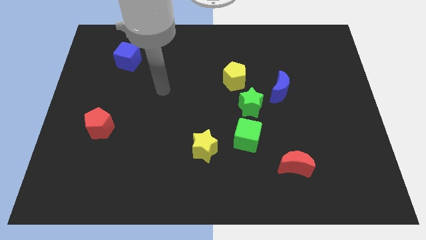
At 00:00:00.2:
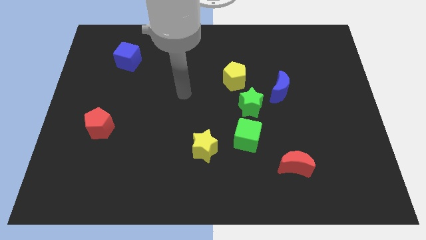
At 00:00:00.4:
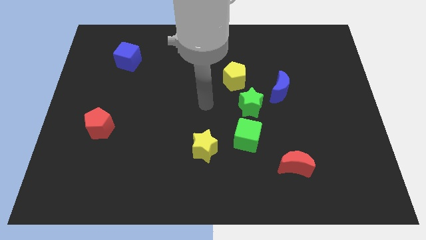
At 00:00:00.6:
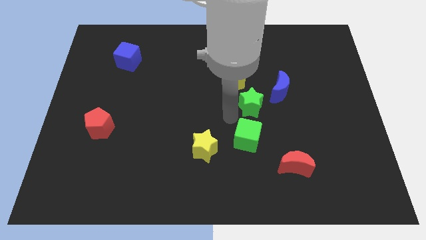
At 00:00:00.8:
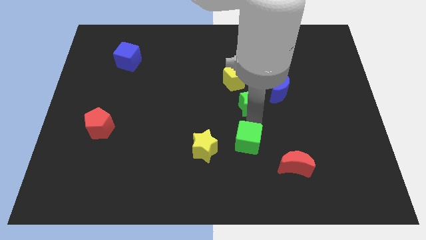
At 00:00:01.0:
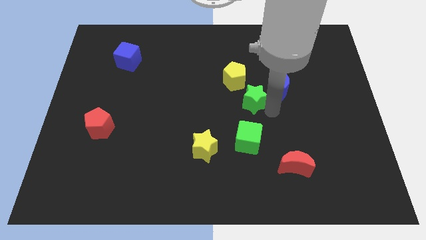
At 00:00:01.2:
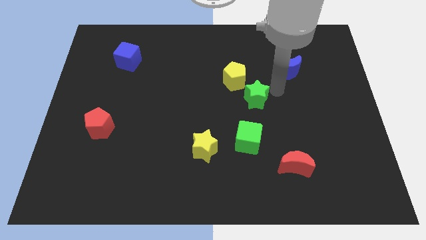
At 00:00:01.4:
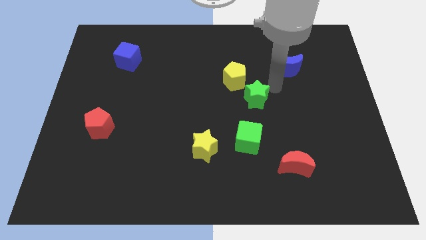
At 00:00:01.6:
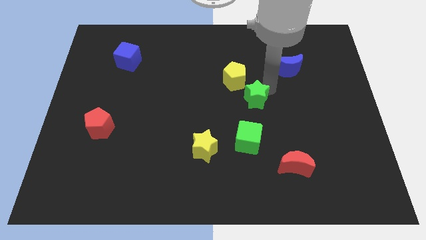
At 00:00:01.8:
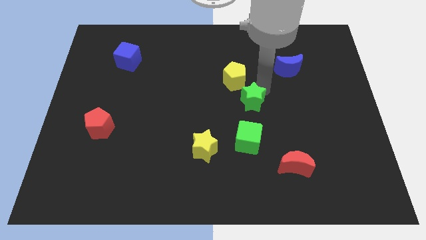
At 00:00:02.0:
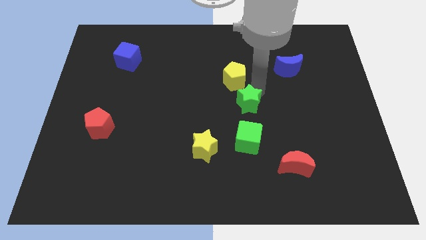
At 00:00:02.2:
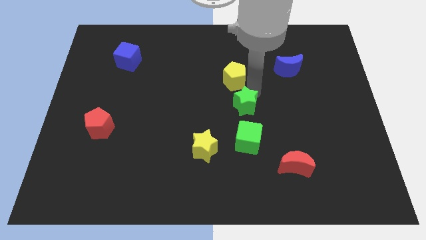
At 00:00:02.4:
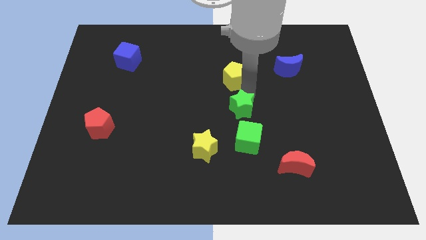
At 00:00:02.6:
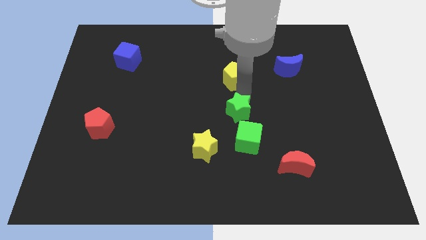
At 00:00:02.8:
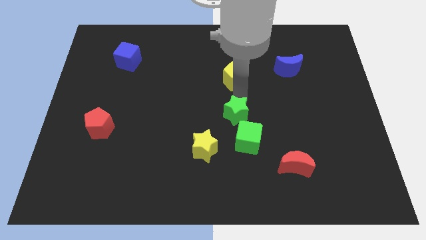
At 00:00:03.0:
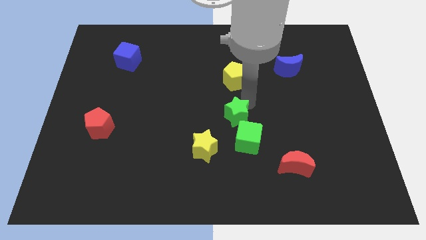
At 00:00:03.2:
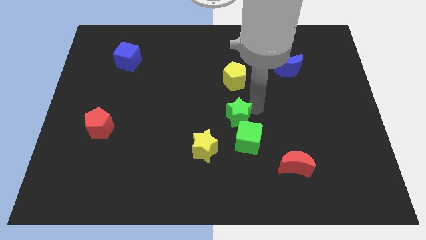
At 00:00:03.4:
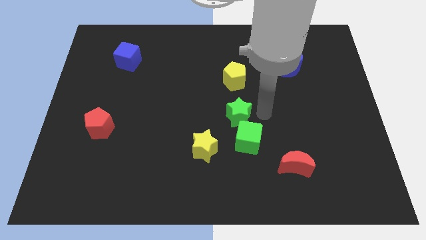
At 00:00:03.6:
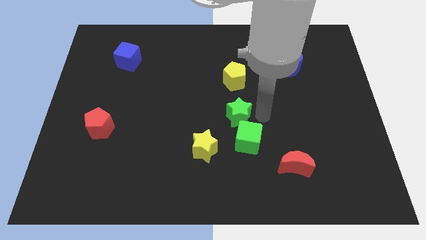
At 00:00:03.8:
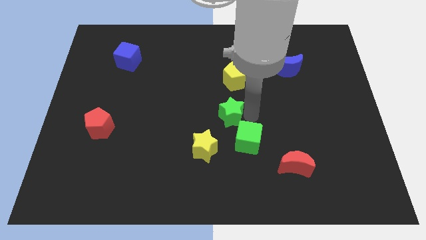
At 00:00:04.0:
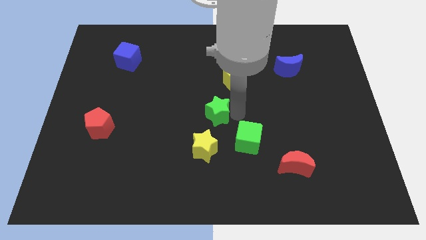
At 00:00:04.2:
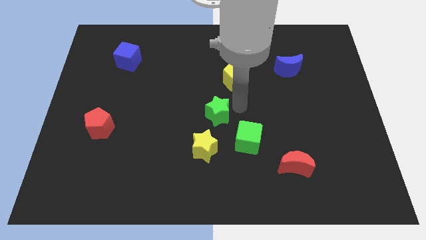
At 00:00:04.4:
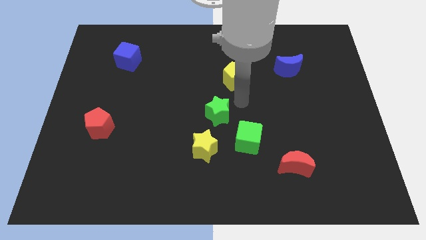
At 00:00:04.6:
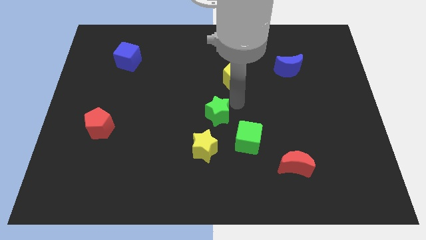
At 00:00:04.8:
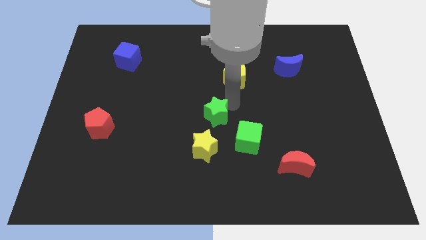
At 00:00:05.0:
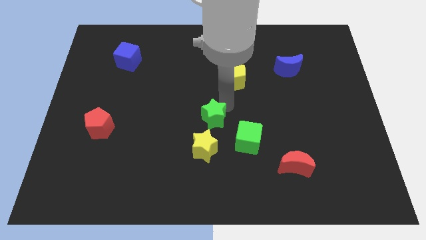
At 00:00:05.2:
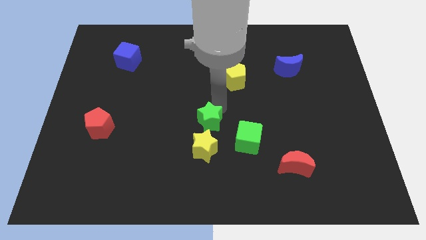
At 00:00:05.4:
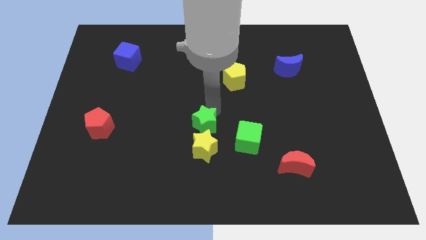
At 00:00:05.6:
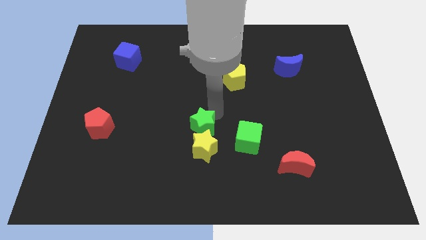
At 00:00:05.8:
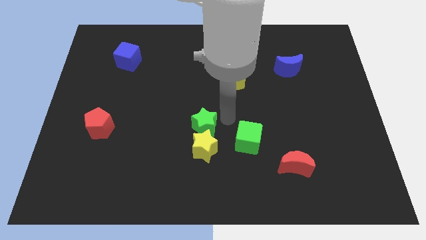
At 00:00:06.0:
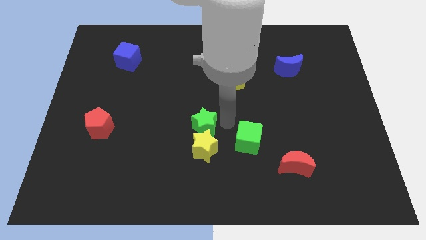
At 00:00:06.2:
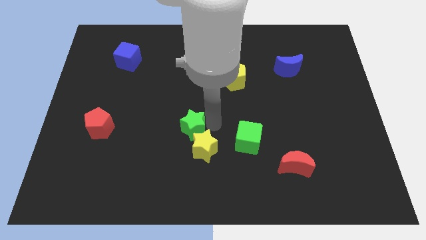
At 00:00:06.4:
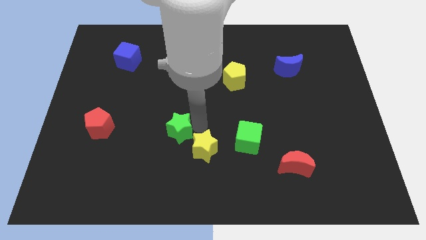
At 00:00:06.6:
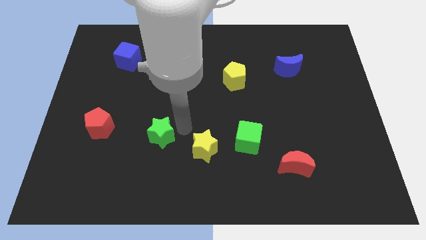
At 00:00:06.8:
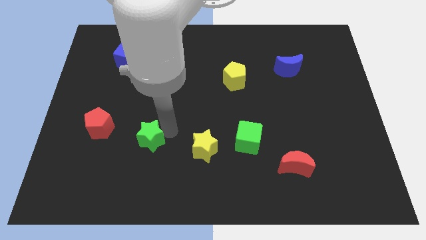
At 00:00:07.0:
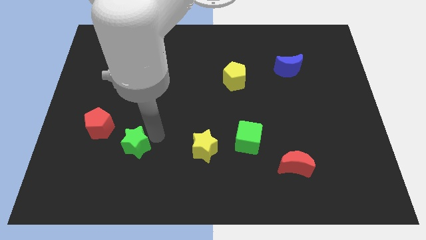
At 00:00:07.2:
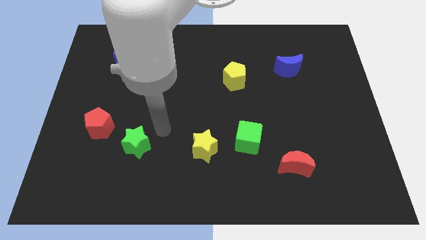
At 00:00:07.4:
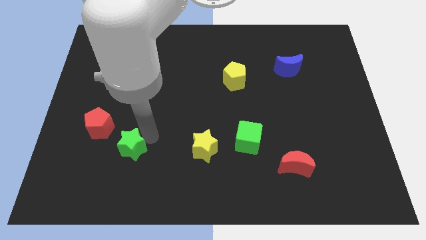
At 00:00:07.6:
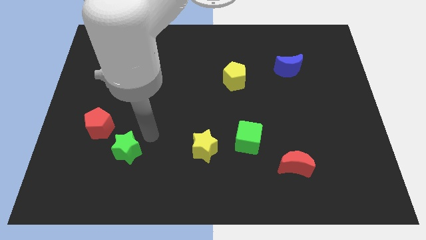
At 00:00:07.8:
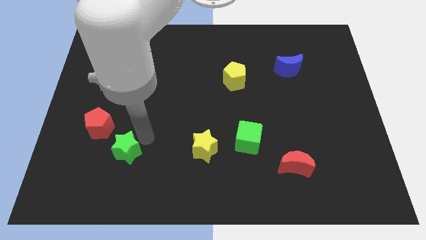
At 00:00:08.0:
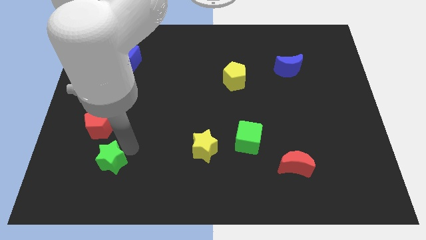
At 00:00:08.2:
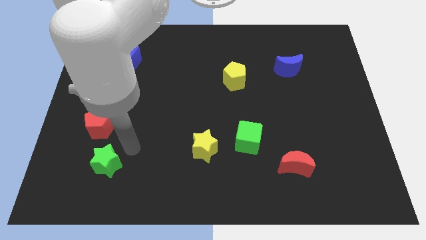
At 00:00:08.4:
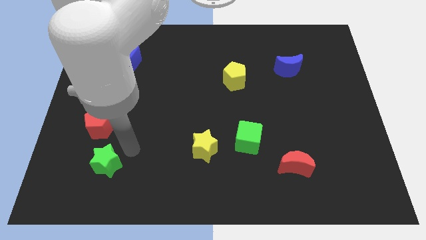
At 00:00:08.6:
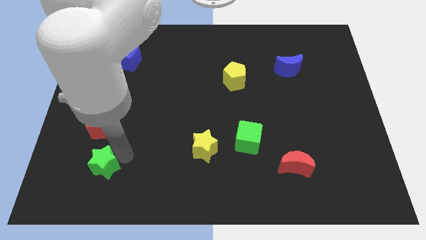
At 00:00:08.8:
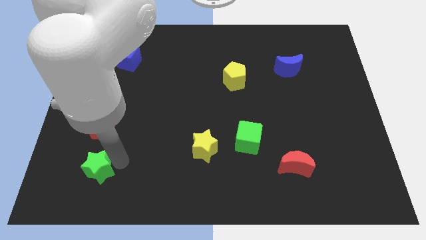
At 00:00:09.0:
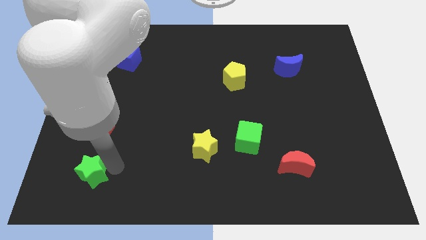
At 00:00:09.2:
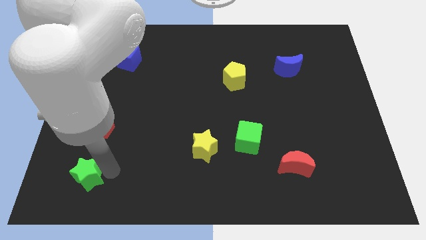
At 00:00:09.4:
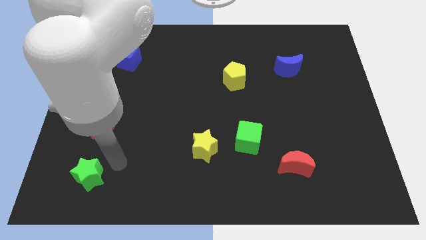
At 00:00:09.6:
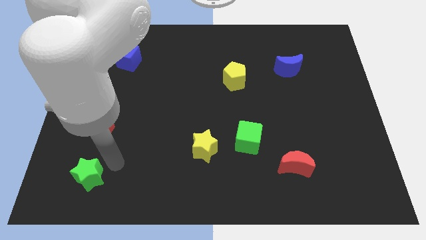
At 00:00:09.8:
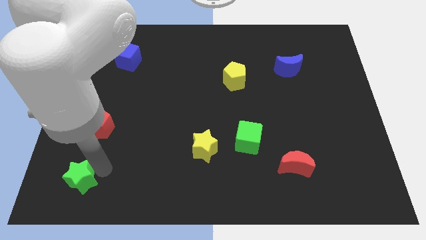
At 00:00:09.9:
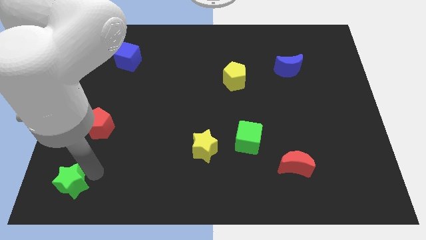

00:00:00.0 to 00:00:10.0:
slide the green star to the bottom left corner
